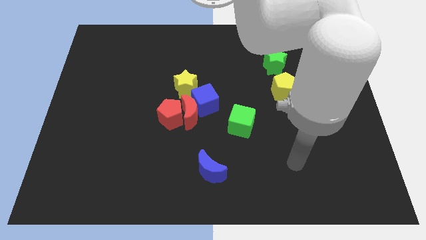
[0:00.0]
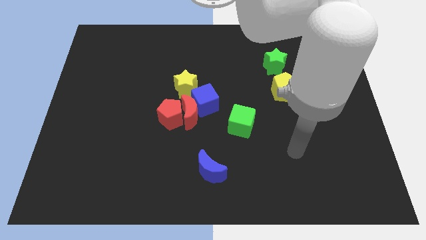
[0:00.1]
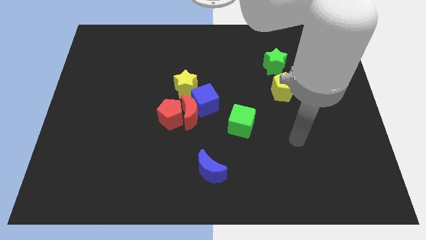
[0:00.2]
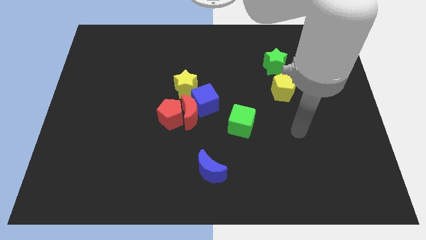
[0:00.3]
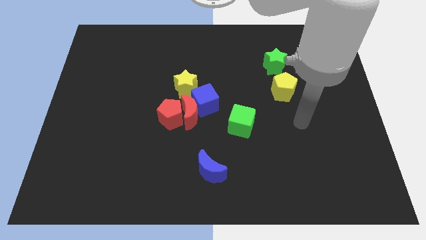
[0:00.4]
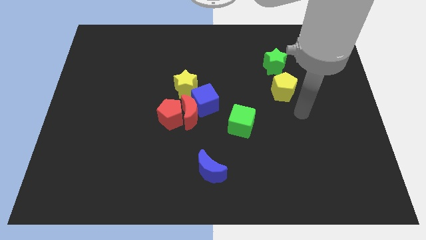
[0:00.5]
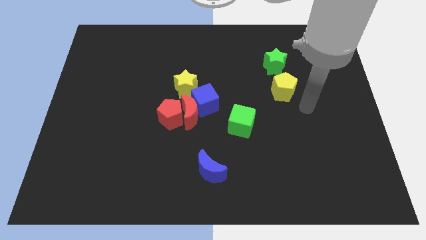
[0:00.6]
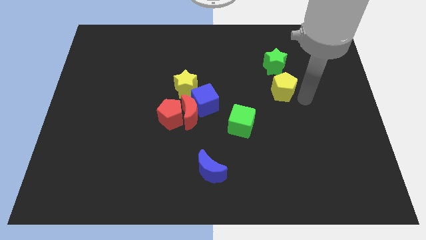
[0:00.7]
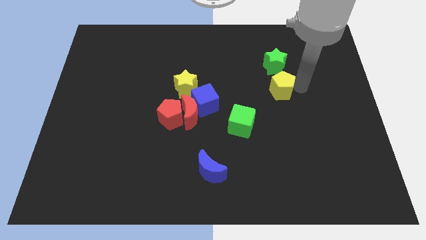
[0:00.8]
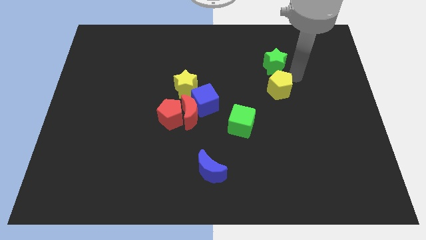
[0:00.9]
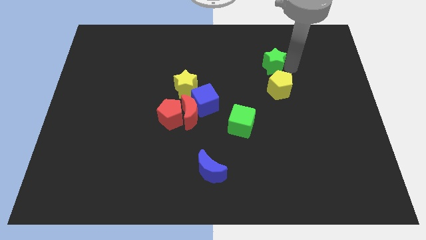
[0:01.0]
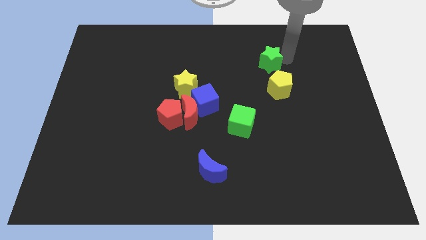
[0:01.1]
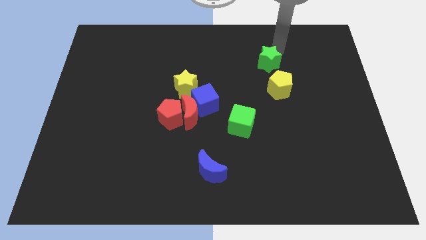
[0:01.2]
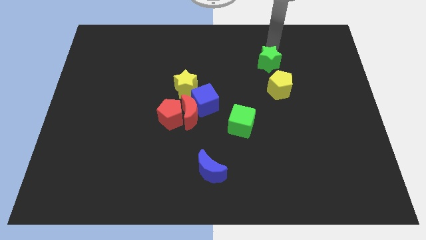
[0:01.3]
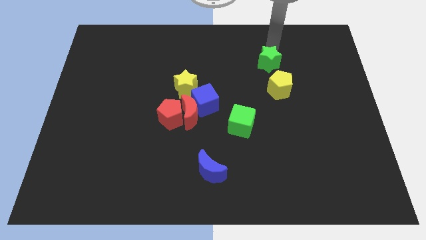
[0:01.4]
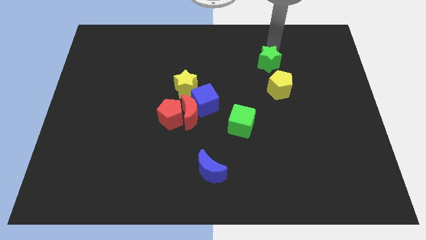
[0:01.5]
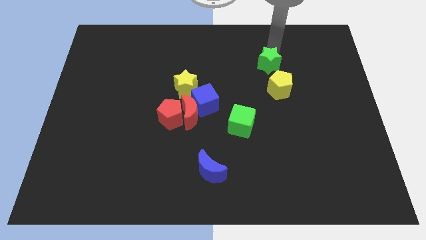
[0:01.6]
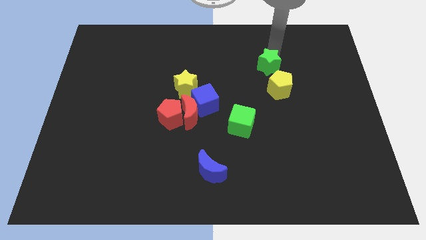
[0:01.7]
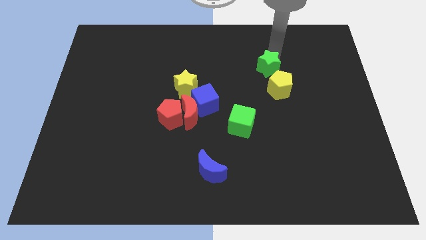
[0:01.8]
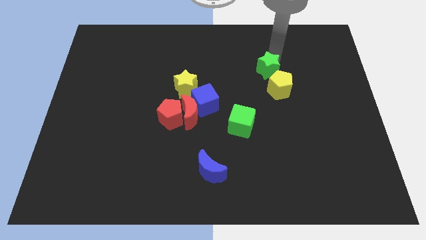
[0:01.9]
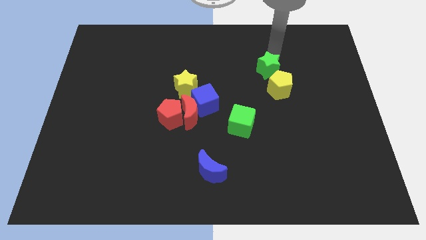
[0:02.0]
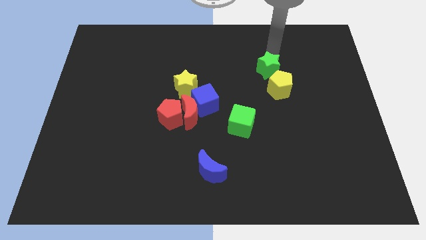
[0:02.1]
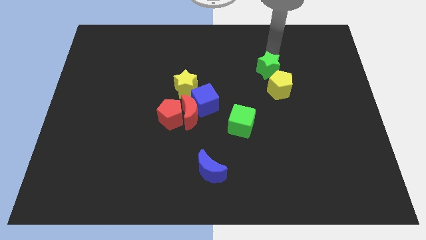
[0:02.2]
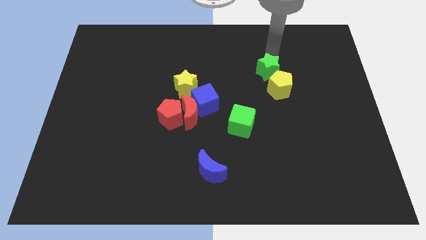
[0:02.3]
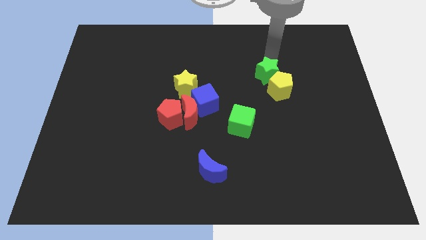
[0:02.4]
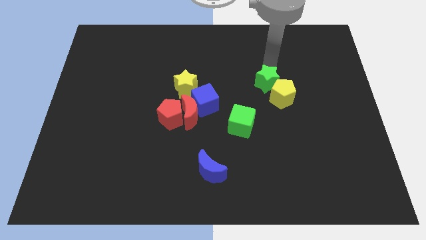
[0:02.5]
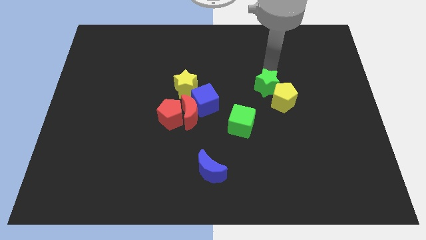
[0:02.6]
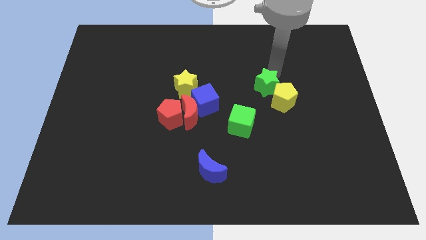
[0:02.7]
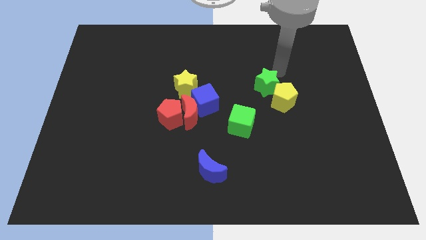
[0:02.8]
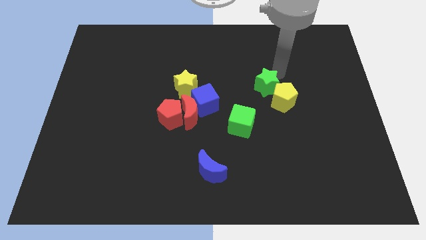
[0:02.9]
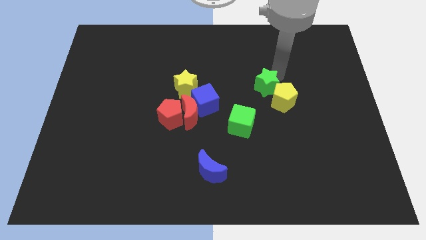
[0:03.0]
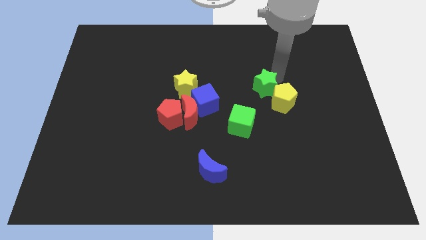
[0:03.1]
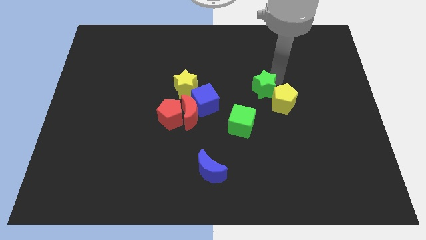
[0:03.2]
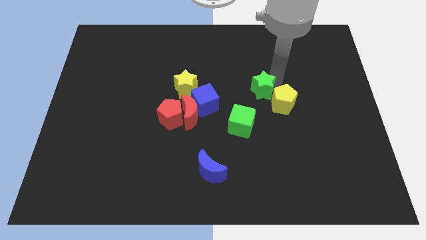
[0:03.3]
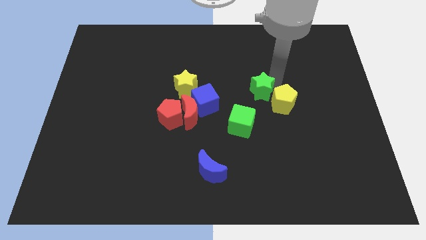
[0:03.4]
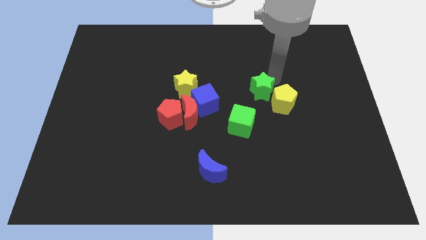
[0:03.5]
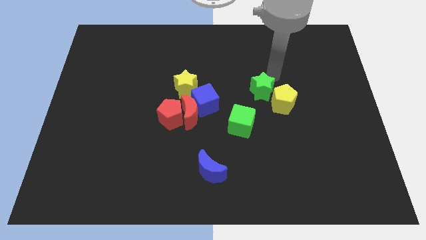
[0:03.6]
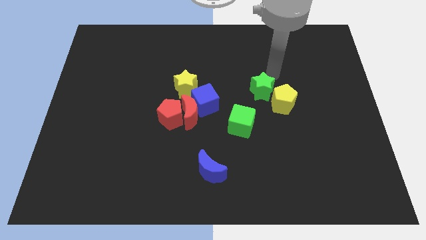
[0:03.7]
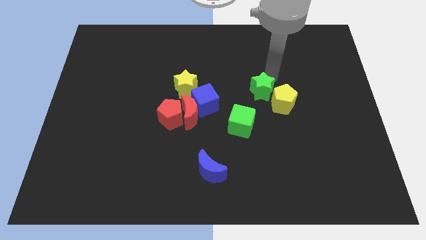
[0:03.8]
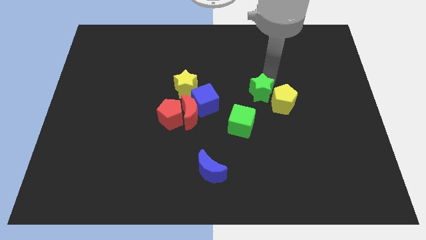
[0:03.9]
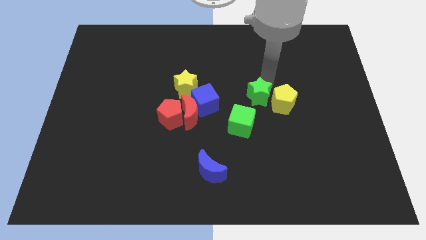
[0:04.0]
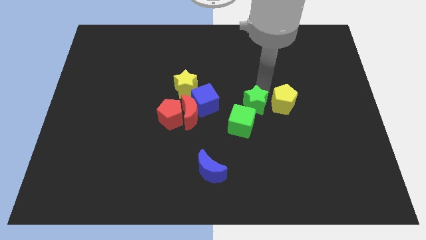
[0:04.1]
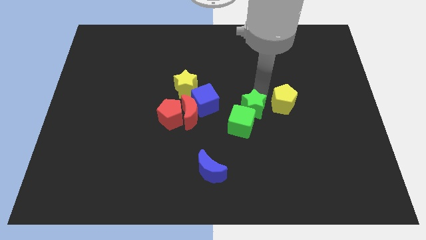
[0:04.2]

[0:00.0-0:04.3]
push the green star next to the green cube

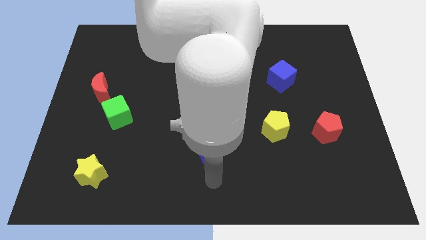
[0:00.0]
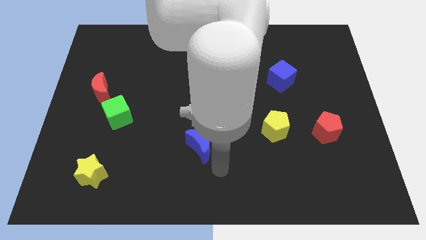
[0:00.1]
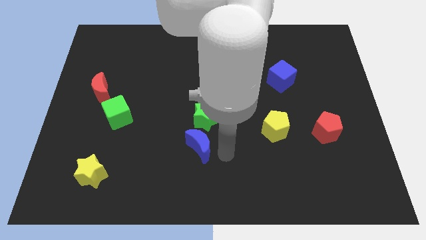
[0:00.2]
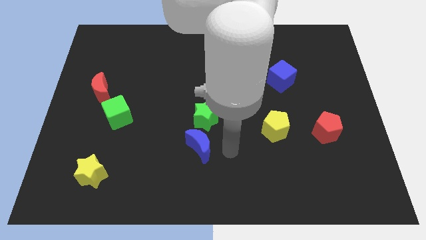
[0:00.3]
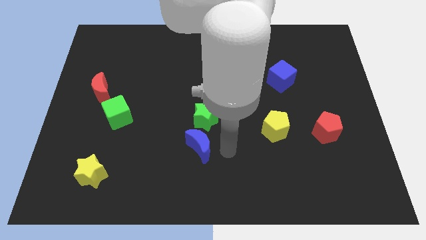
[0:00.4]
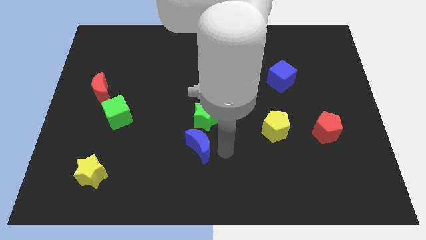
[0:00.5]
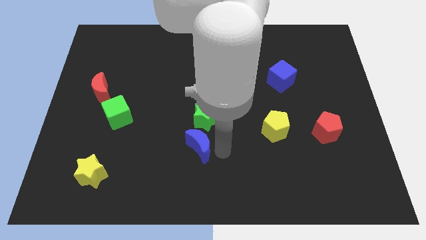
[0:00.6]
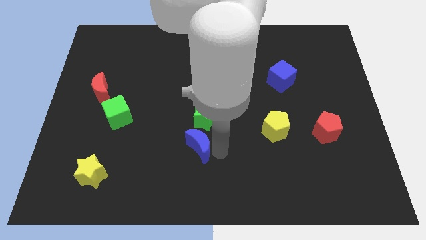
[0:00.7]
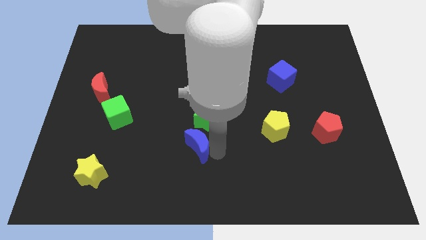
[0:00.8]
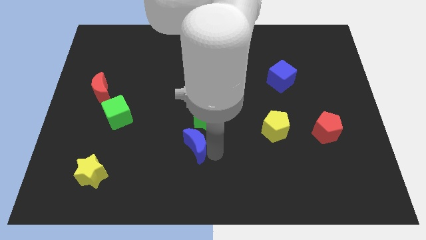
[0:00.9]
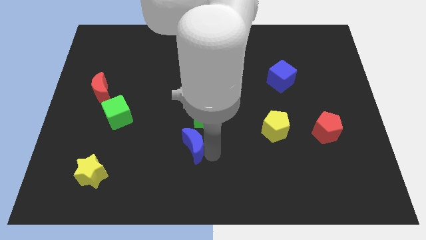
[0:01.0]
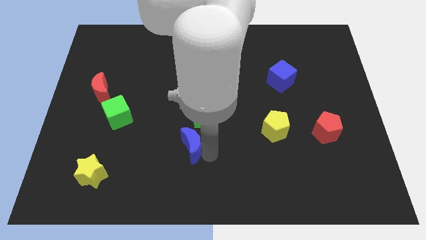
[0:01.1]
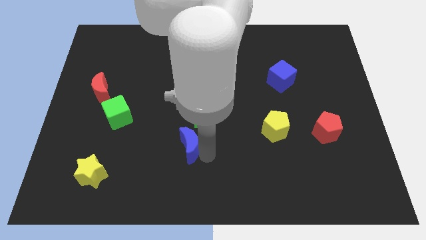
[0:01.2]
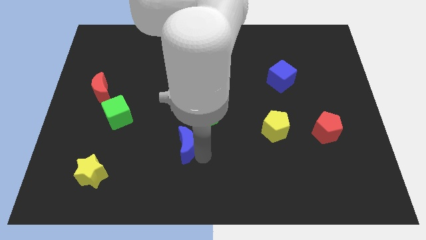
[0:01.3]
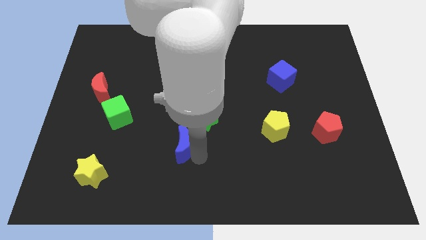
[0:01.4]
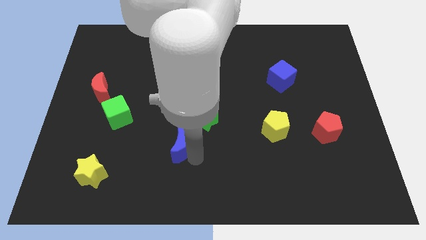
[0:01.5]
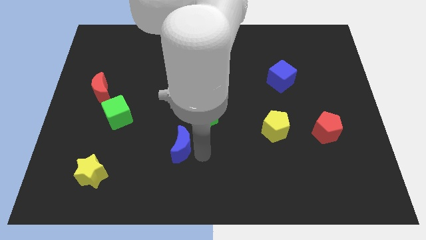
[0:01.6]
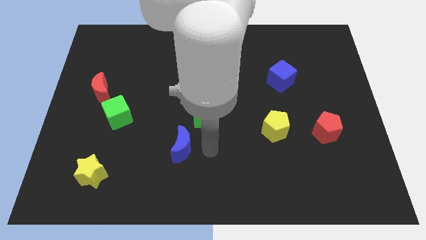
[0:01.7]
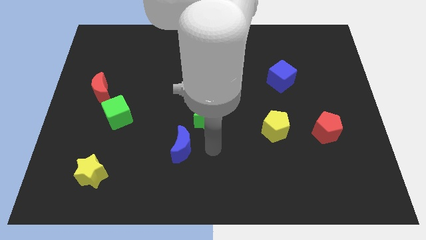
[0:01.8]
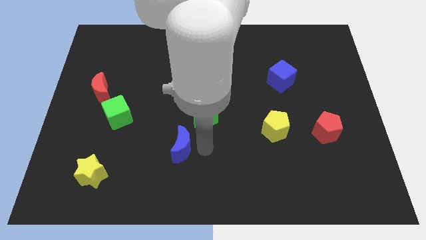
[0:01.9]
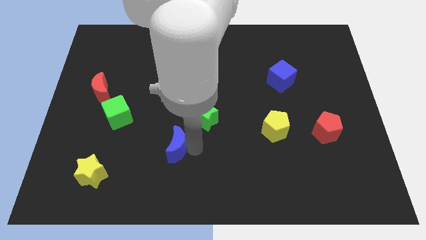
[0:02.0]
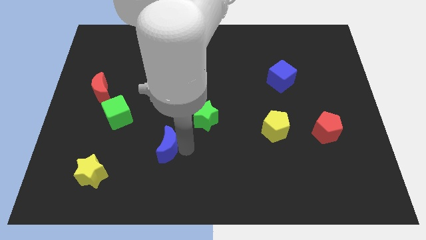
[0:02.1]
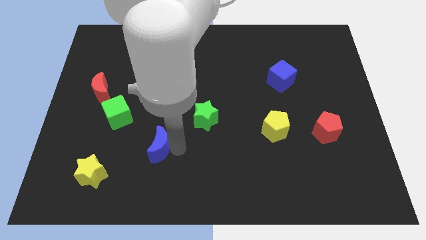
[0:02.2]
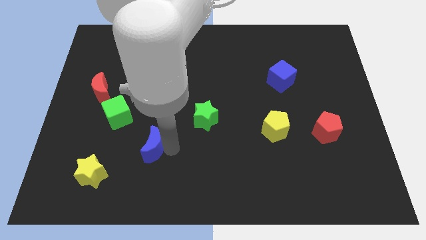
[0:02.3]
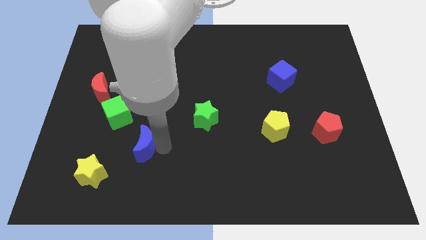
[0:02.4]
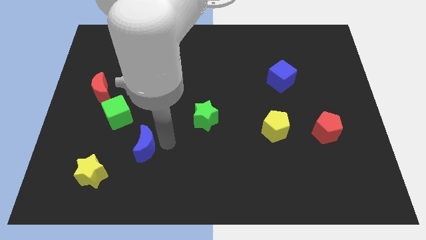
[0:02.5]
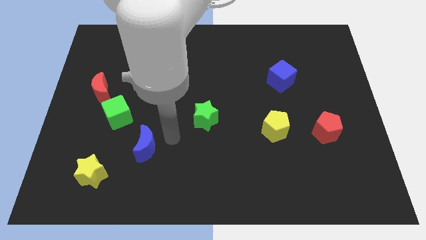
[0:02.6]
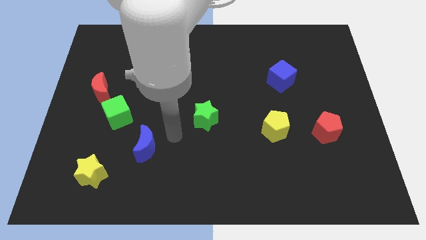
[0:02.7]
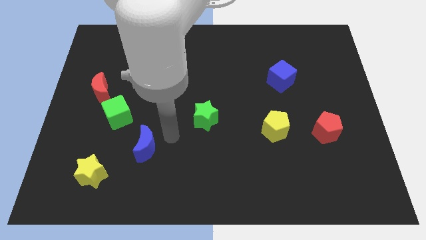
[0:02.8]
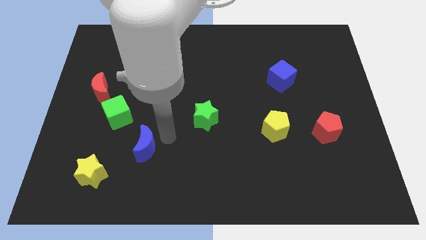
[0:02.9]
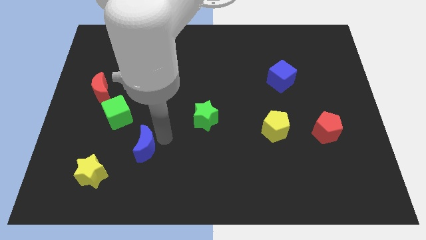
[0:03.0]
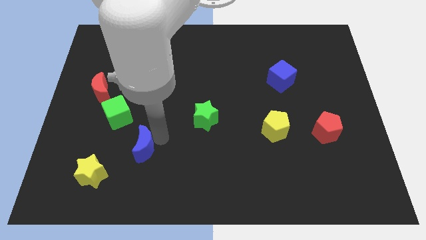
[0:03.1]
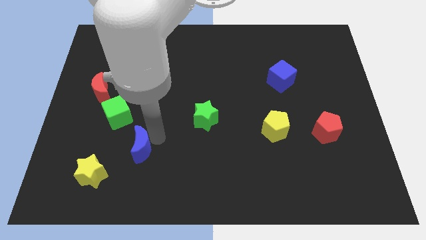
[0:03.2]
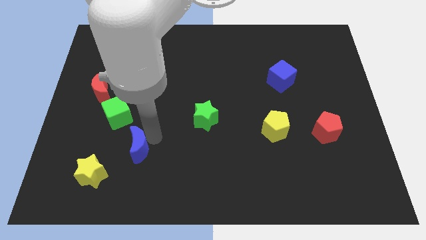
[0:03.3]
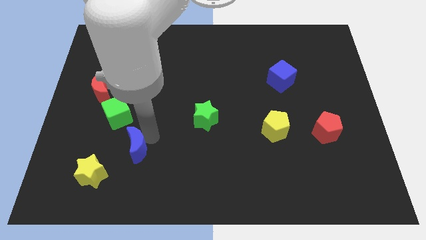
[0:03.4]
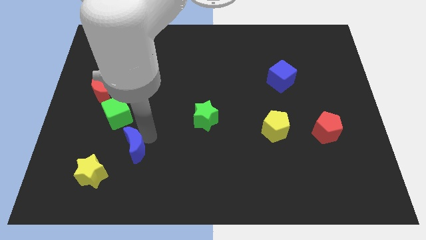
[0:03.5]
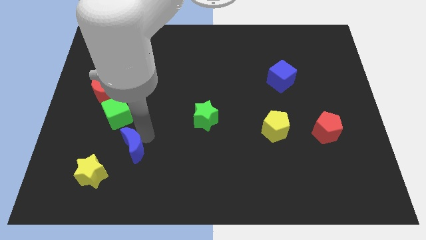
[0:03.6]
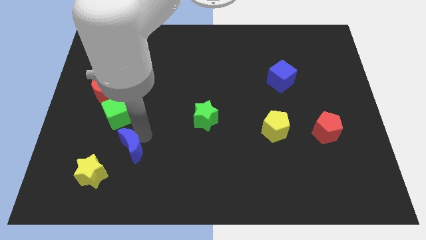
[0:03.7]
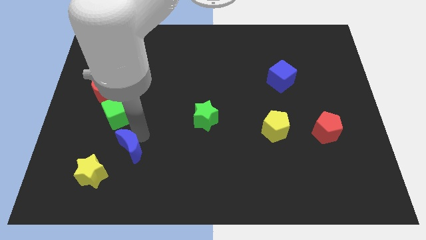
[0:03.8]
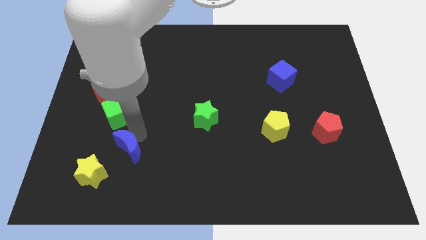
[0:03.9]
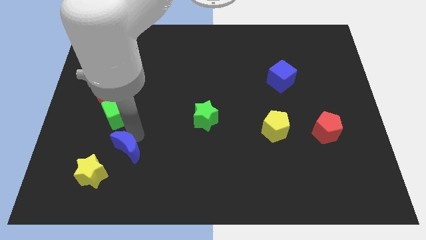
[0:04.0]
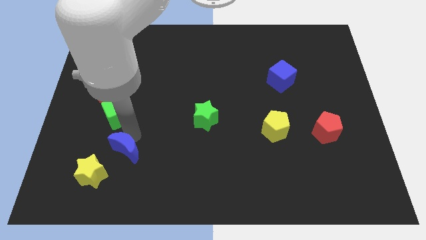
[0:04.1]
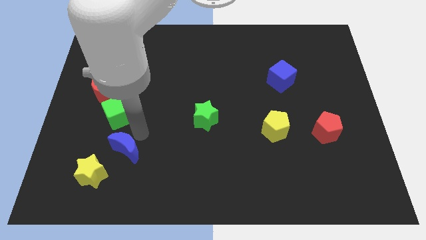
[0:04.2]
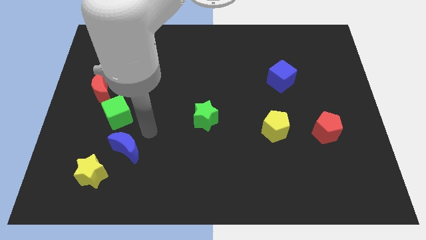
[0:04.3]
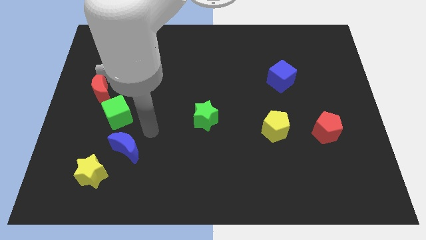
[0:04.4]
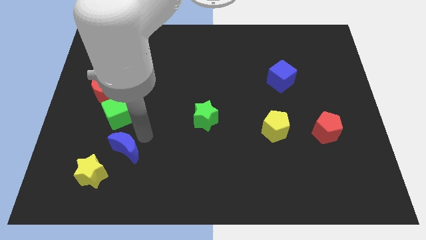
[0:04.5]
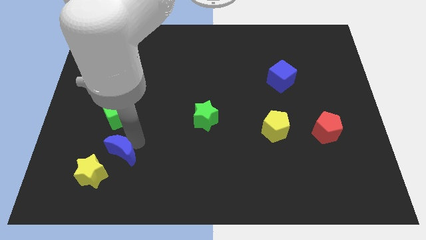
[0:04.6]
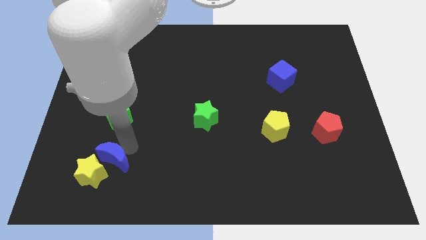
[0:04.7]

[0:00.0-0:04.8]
push the blue moon next to the yellow star
